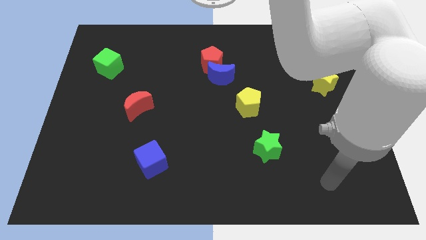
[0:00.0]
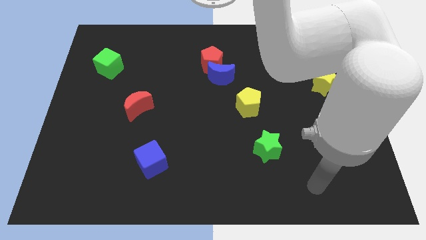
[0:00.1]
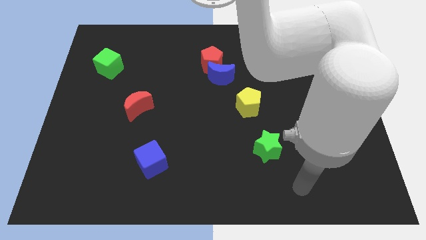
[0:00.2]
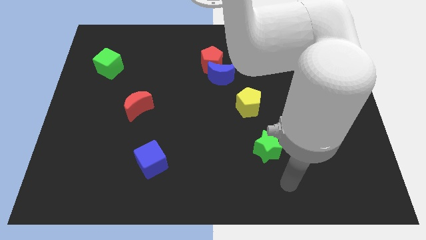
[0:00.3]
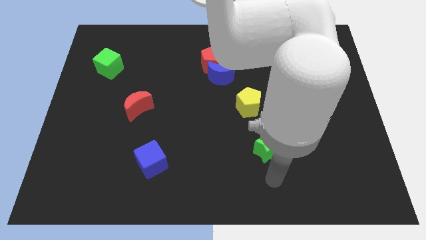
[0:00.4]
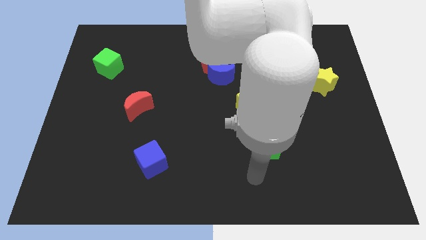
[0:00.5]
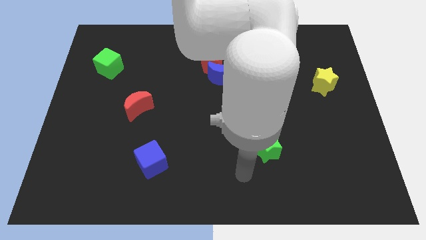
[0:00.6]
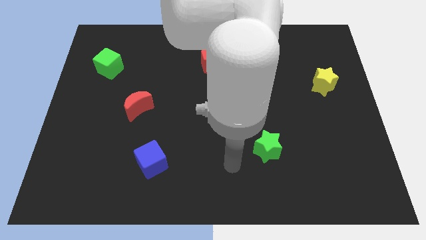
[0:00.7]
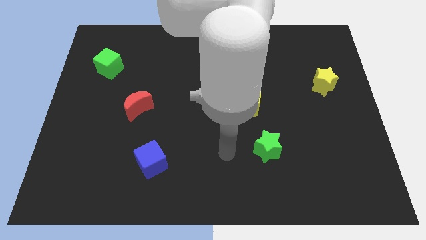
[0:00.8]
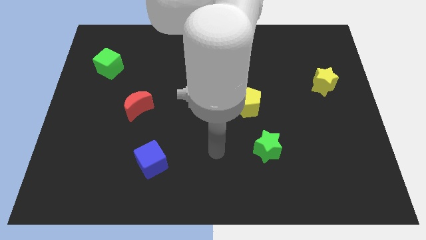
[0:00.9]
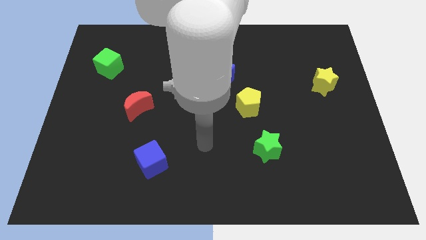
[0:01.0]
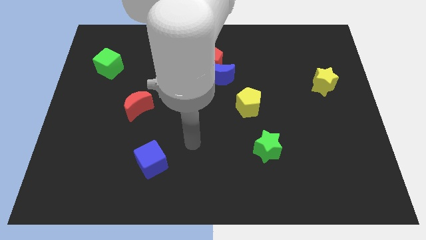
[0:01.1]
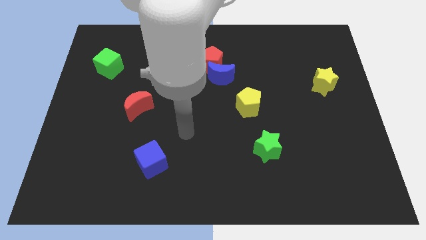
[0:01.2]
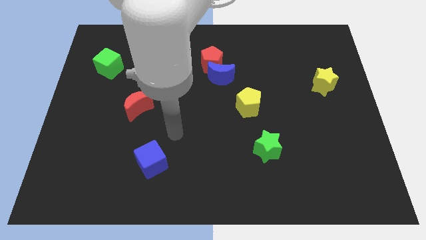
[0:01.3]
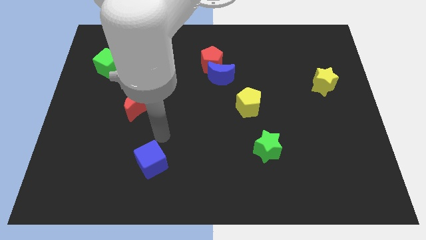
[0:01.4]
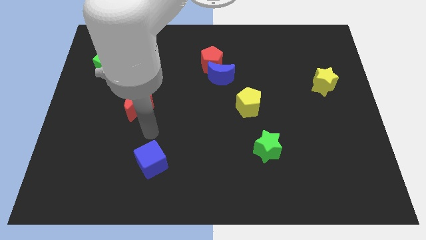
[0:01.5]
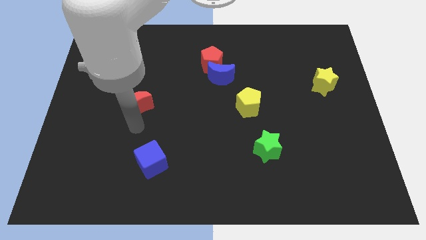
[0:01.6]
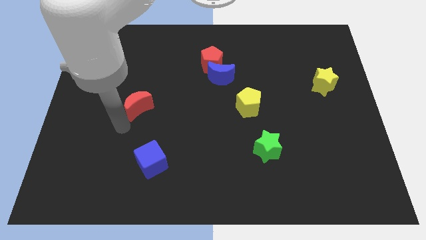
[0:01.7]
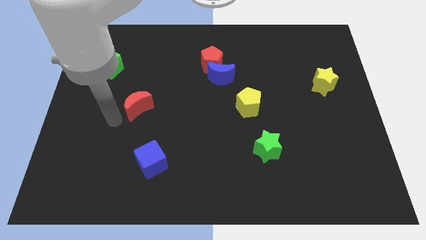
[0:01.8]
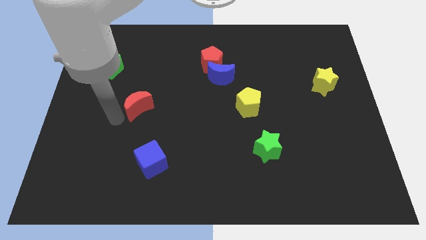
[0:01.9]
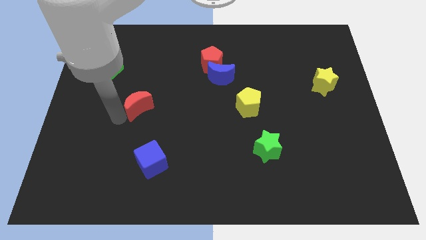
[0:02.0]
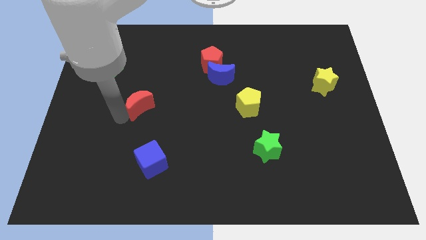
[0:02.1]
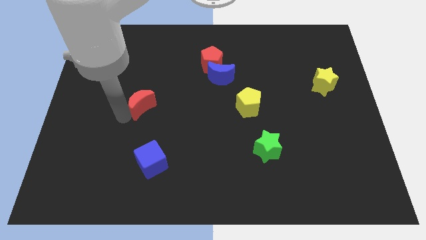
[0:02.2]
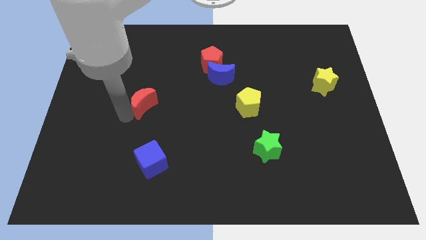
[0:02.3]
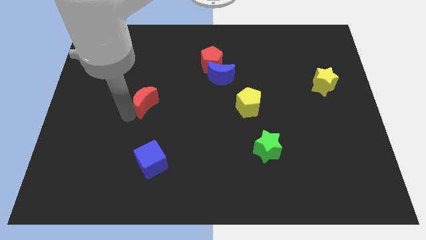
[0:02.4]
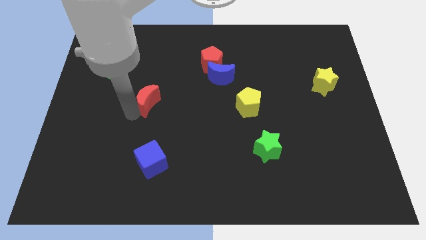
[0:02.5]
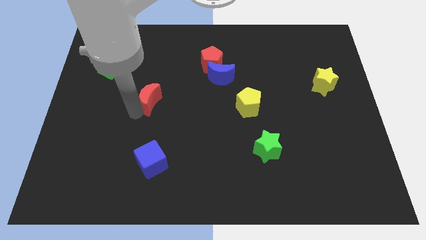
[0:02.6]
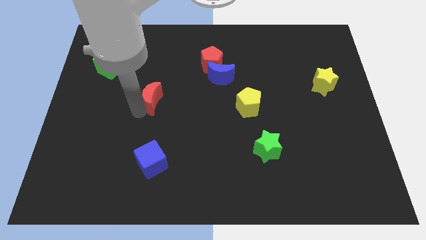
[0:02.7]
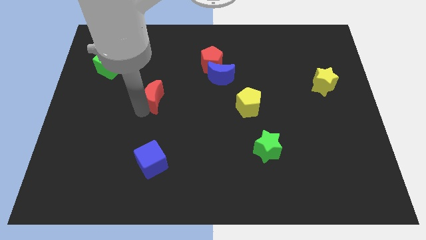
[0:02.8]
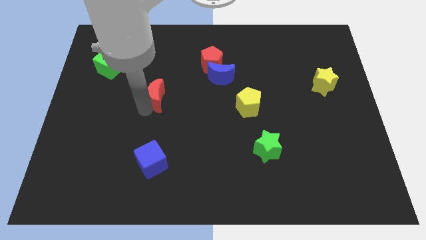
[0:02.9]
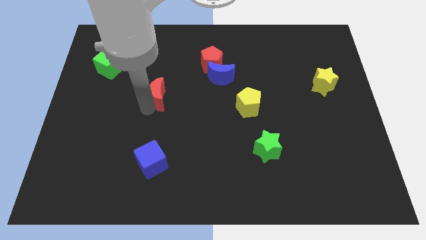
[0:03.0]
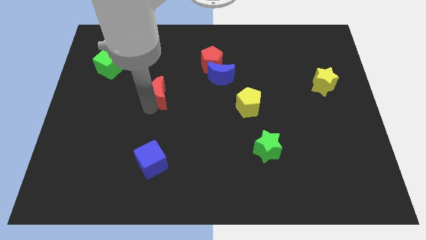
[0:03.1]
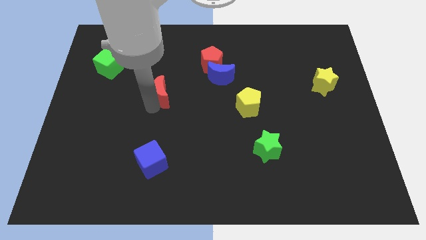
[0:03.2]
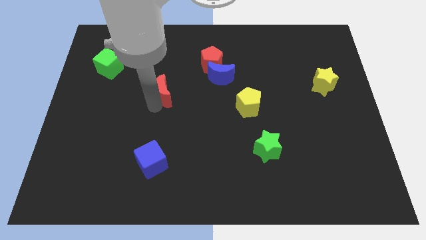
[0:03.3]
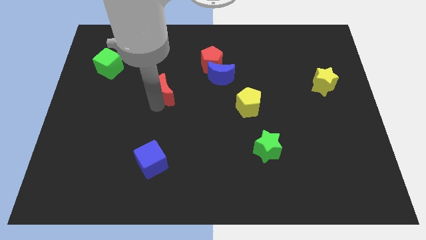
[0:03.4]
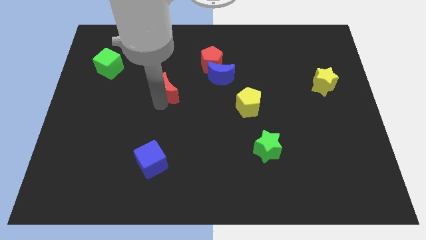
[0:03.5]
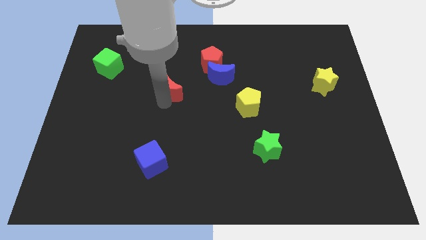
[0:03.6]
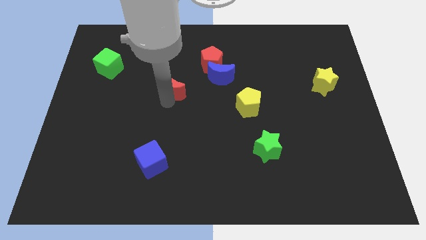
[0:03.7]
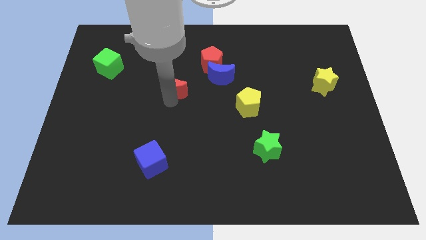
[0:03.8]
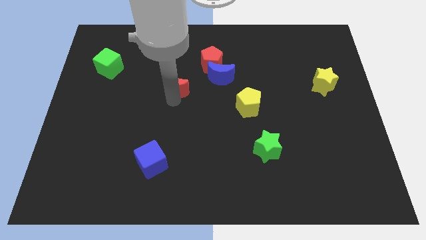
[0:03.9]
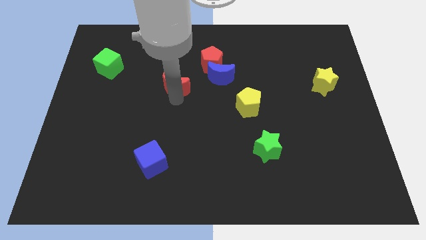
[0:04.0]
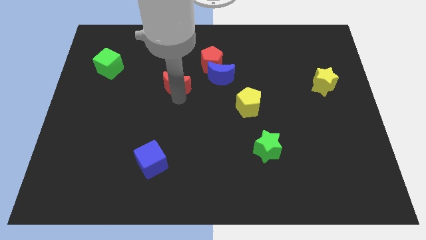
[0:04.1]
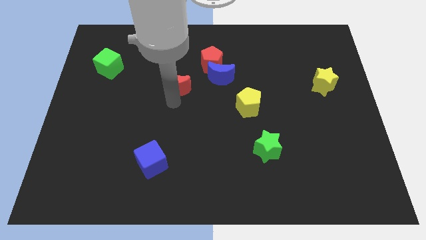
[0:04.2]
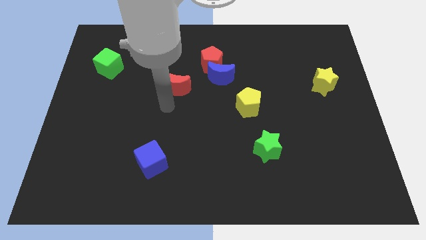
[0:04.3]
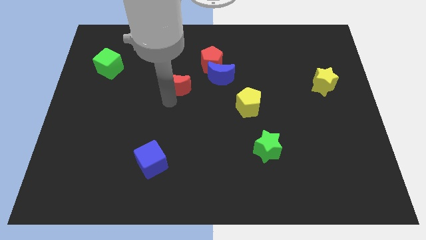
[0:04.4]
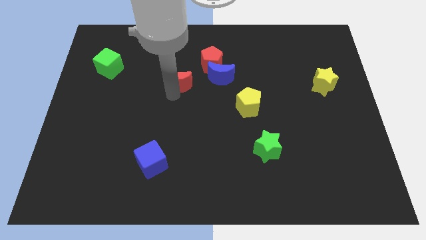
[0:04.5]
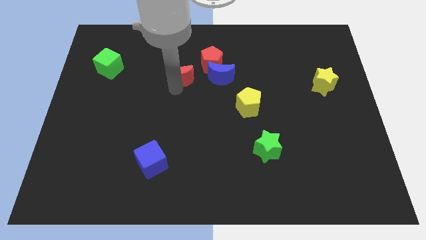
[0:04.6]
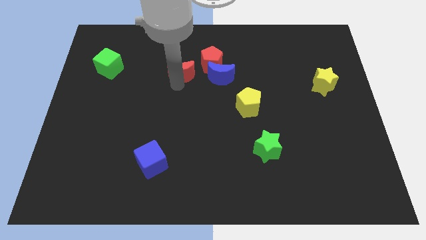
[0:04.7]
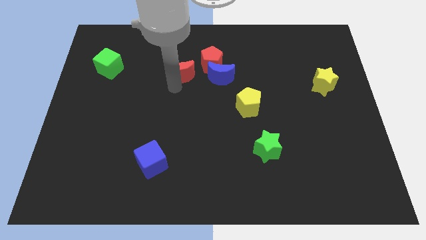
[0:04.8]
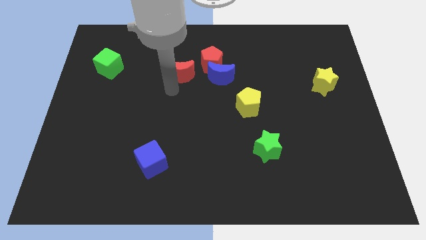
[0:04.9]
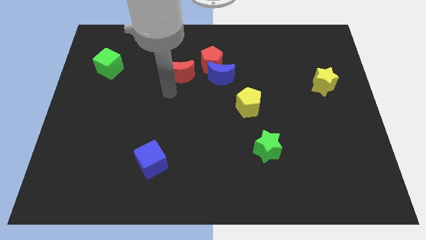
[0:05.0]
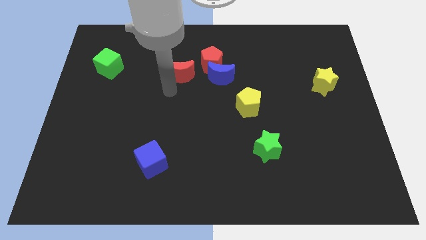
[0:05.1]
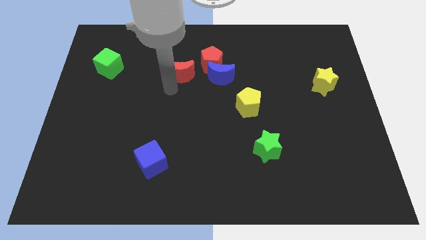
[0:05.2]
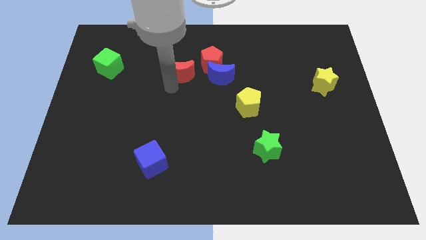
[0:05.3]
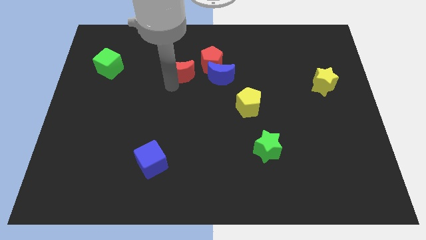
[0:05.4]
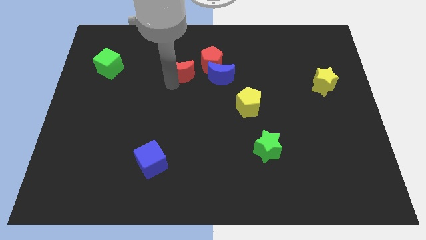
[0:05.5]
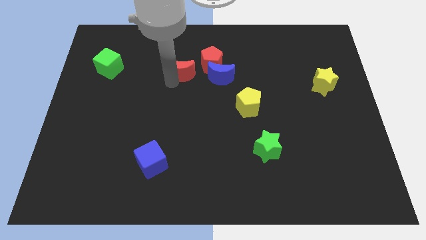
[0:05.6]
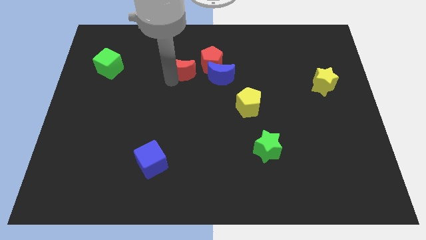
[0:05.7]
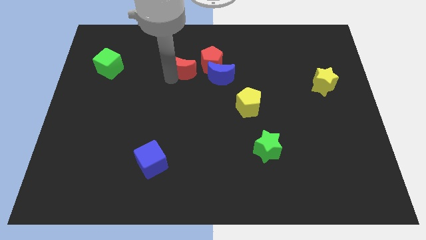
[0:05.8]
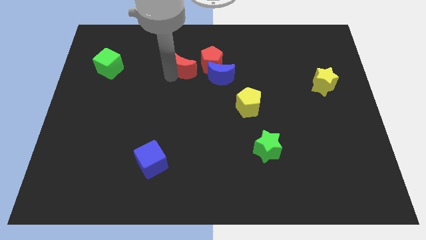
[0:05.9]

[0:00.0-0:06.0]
put the red moon to the top left of the blue moon

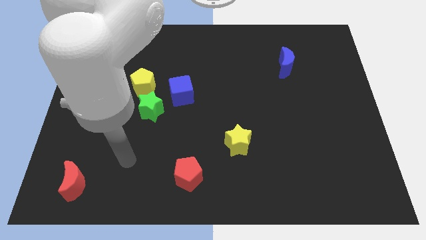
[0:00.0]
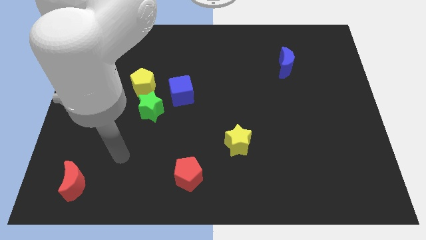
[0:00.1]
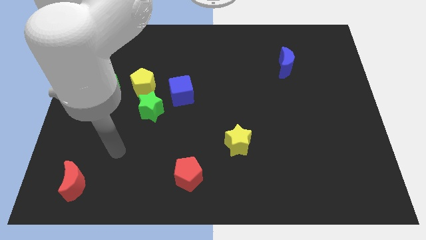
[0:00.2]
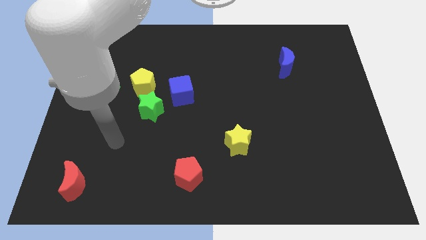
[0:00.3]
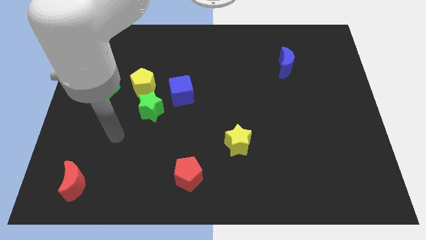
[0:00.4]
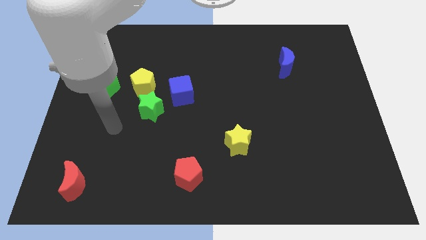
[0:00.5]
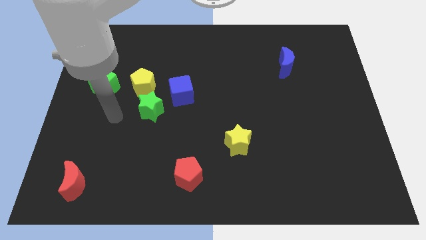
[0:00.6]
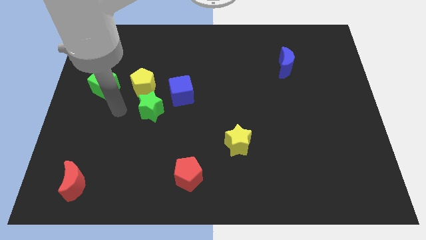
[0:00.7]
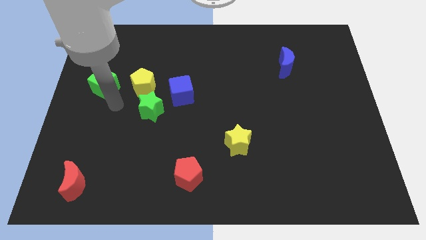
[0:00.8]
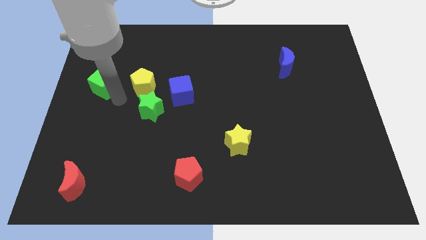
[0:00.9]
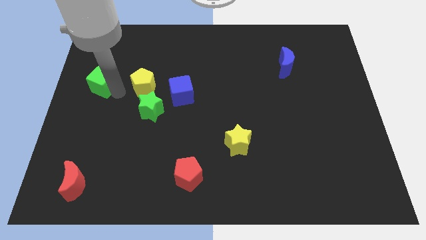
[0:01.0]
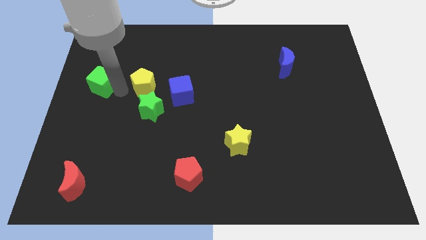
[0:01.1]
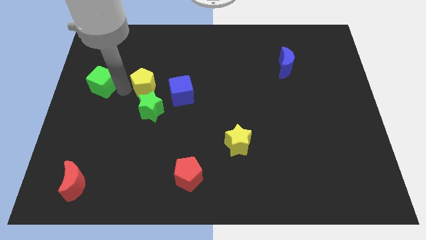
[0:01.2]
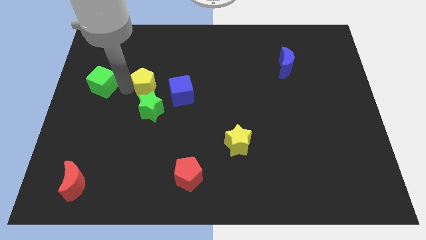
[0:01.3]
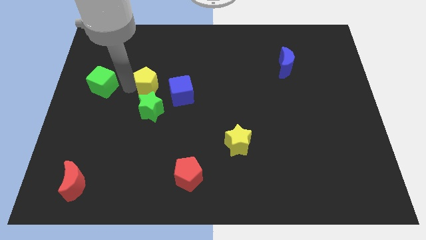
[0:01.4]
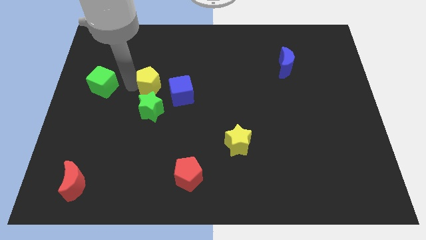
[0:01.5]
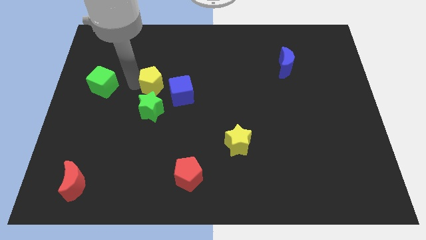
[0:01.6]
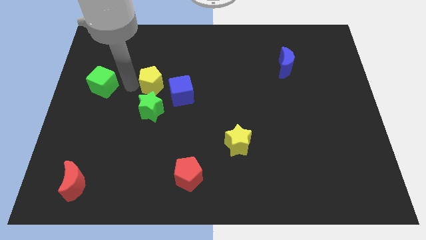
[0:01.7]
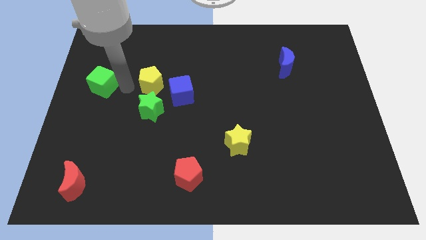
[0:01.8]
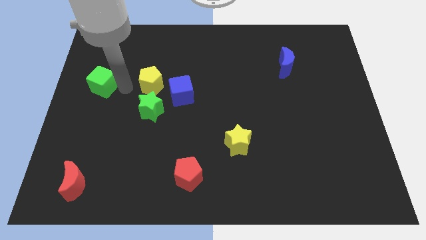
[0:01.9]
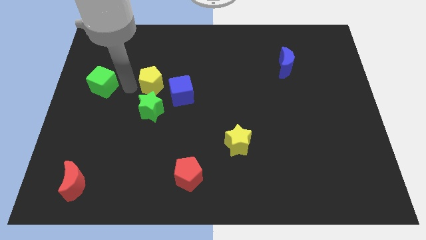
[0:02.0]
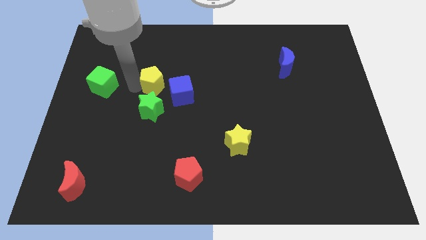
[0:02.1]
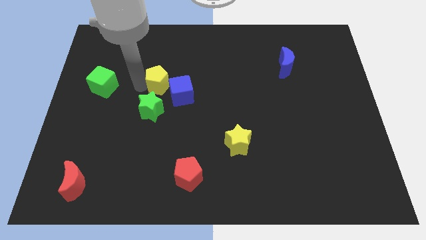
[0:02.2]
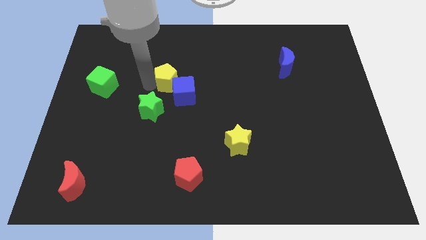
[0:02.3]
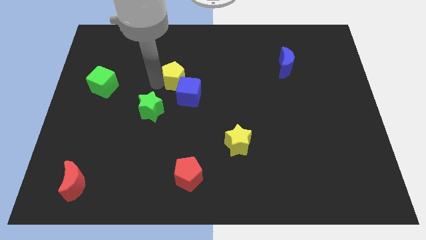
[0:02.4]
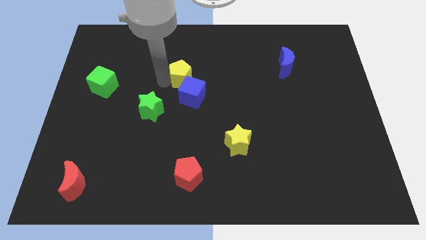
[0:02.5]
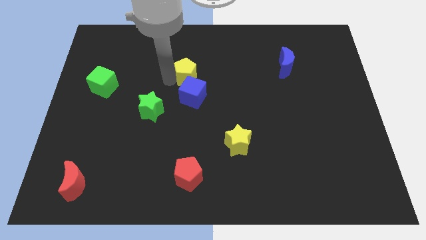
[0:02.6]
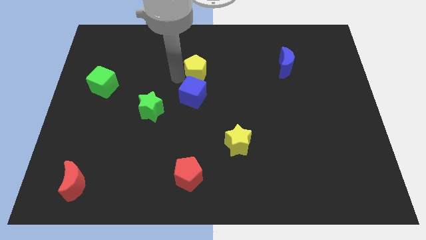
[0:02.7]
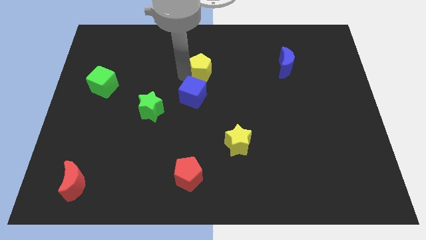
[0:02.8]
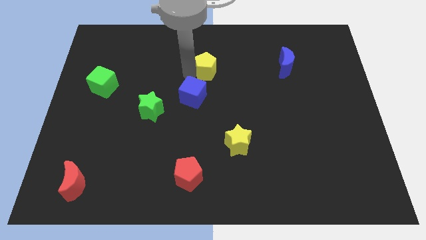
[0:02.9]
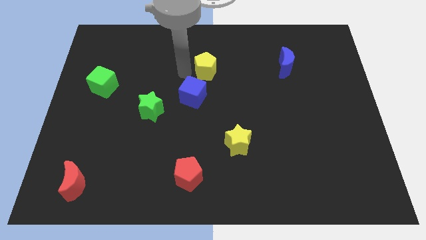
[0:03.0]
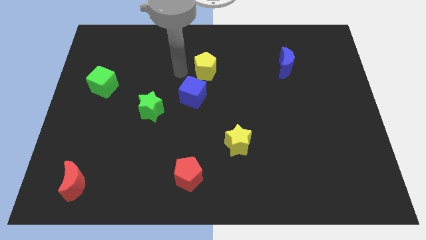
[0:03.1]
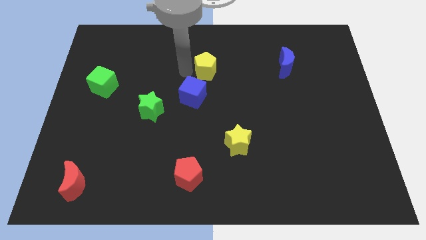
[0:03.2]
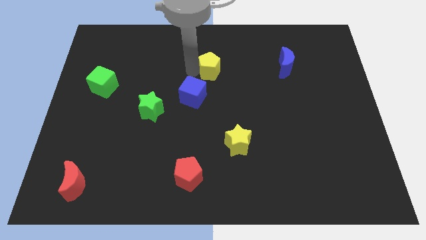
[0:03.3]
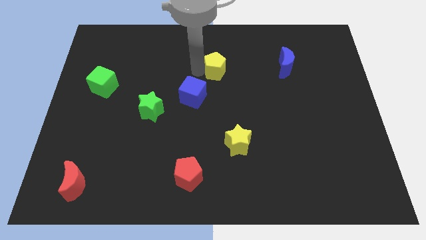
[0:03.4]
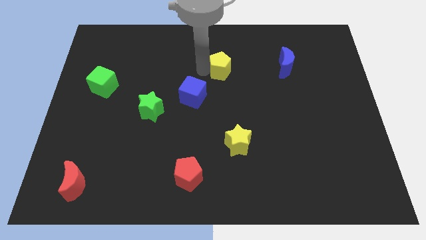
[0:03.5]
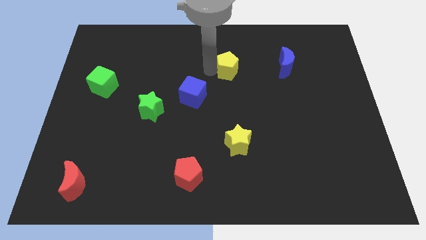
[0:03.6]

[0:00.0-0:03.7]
slide the yellow pentagon to the left side of the blue moon
